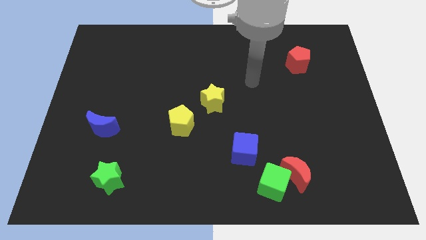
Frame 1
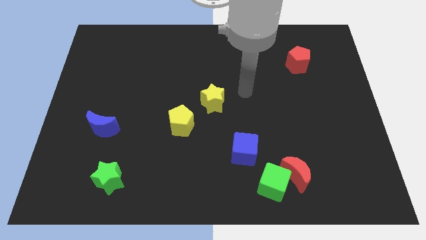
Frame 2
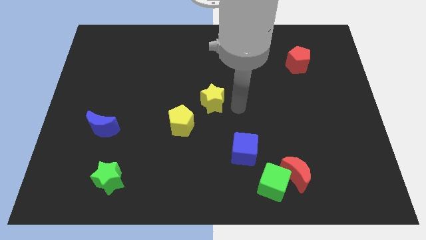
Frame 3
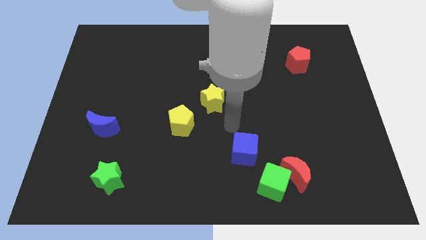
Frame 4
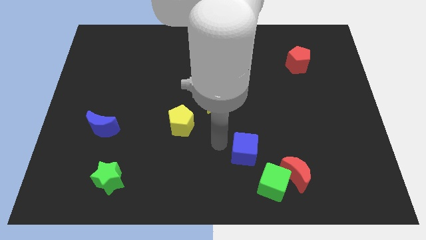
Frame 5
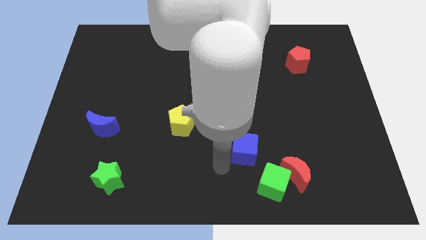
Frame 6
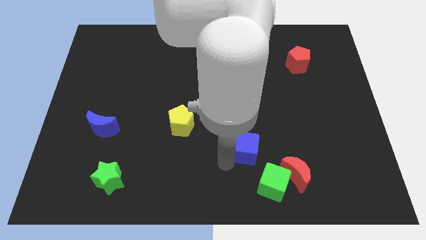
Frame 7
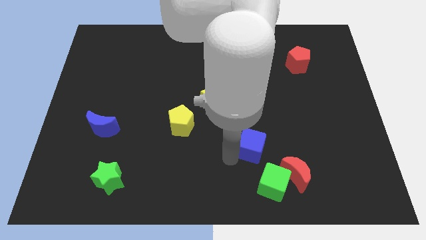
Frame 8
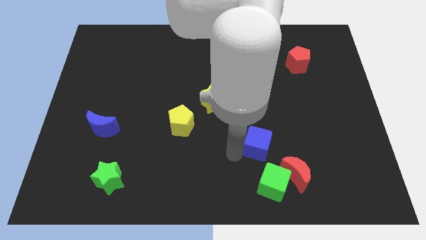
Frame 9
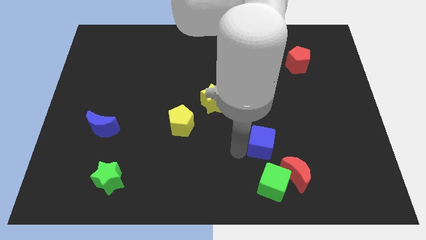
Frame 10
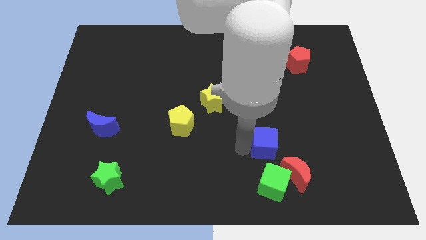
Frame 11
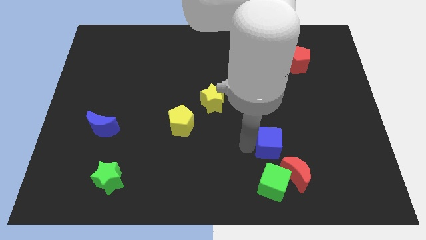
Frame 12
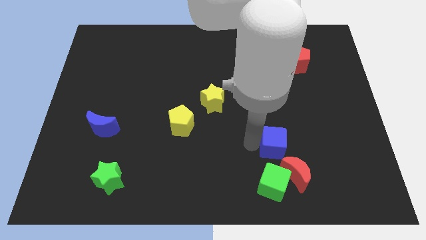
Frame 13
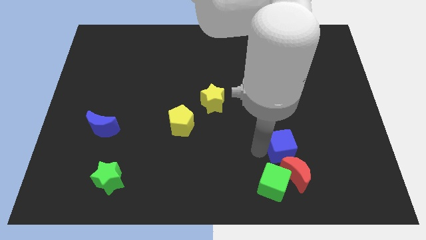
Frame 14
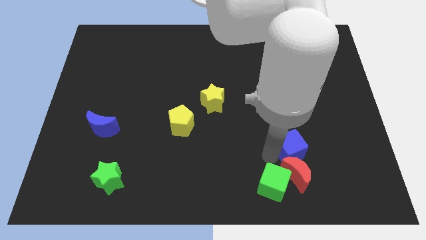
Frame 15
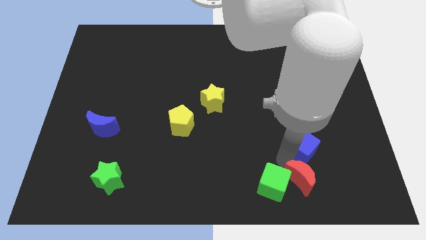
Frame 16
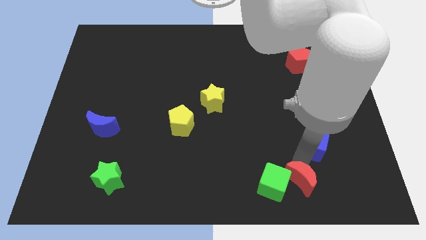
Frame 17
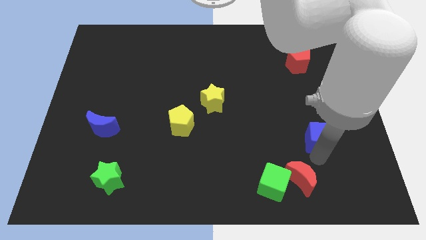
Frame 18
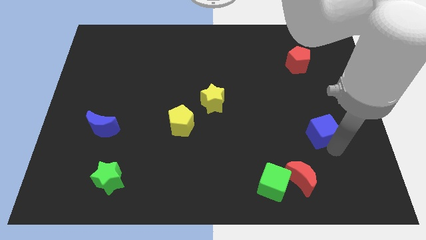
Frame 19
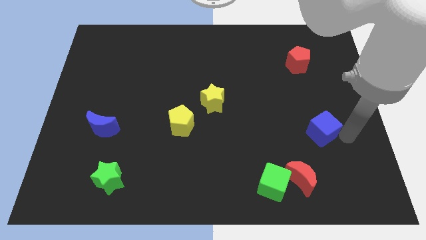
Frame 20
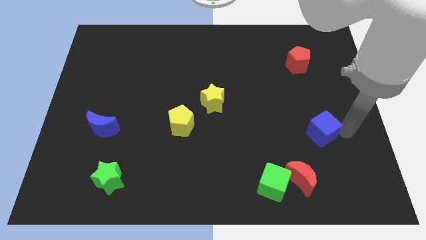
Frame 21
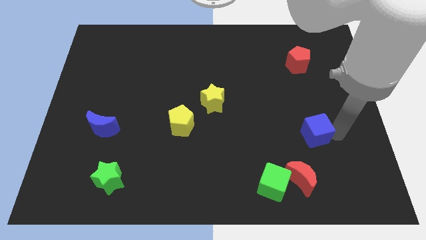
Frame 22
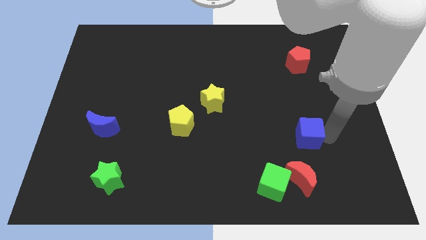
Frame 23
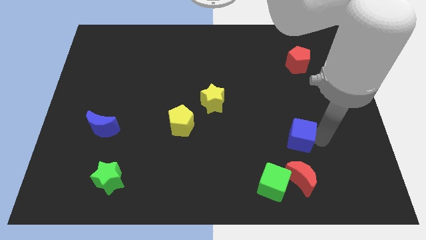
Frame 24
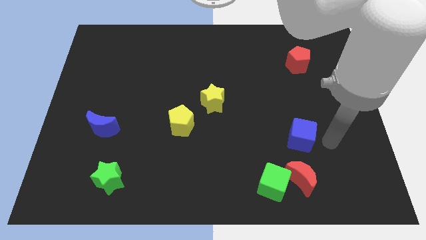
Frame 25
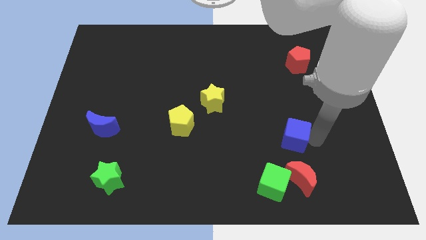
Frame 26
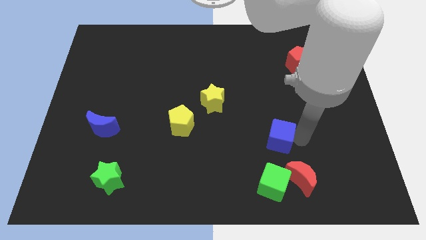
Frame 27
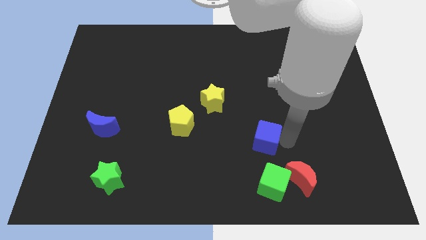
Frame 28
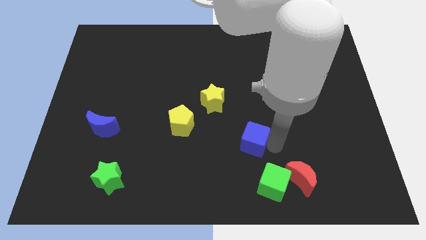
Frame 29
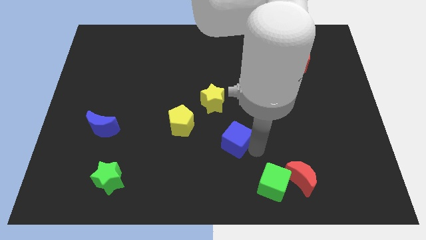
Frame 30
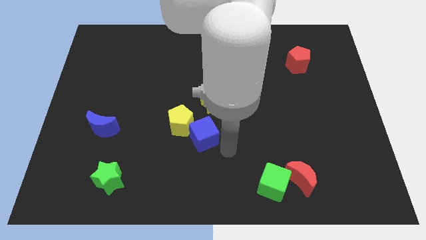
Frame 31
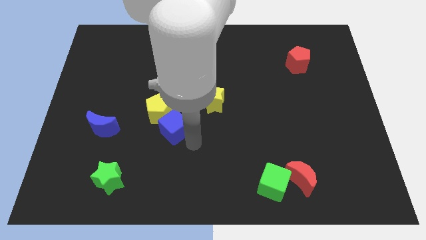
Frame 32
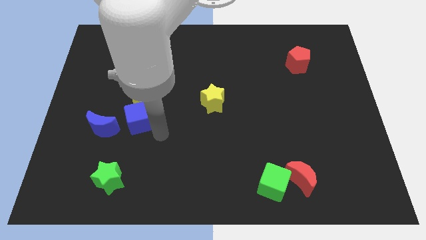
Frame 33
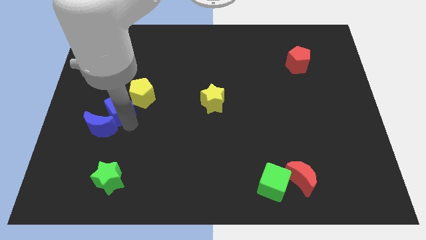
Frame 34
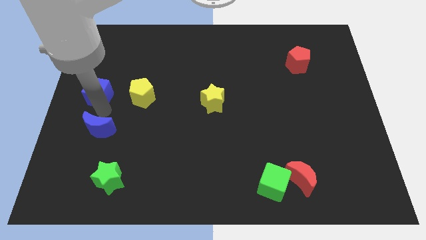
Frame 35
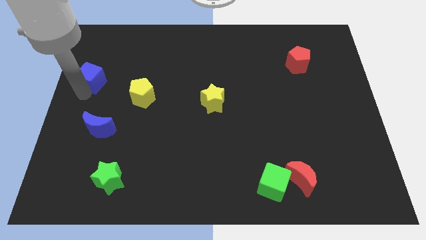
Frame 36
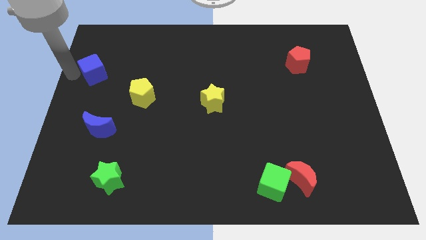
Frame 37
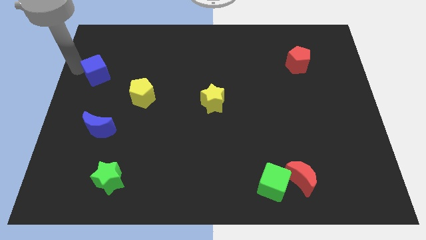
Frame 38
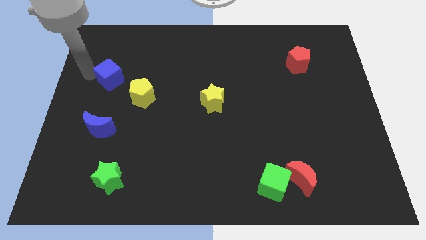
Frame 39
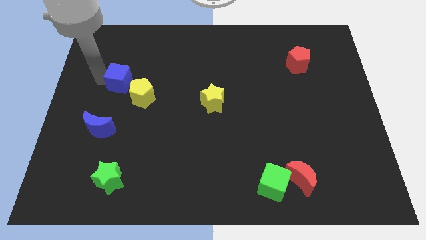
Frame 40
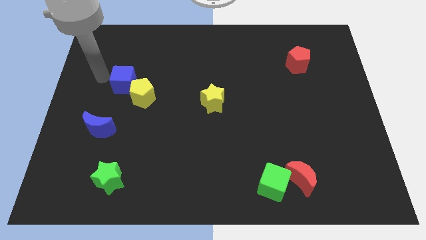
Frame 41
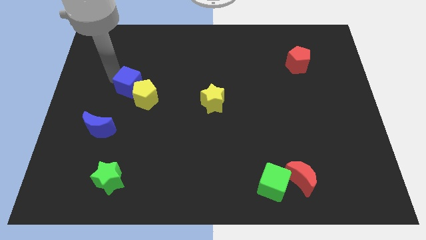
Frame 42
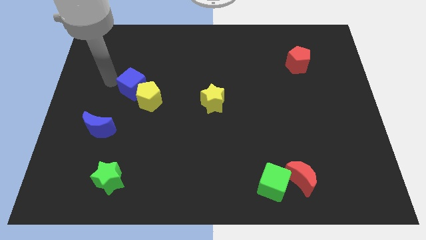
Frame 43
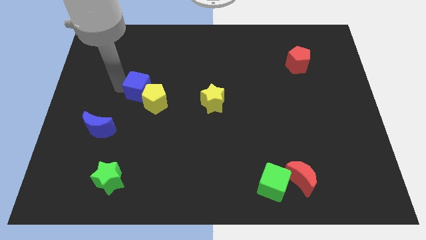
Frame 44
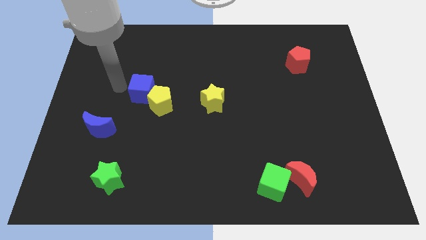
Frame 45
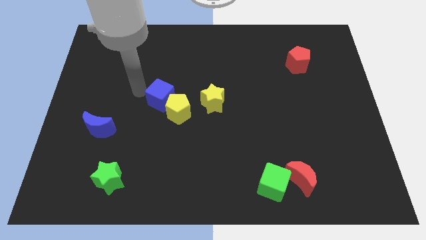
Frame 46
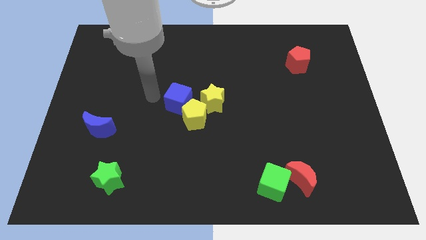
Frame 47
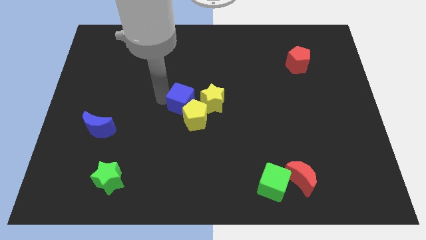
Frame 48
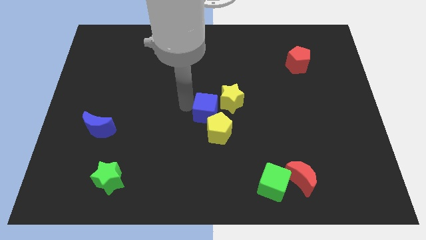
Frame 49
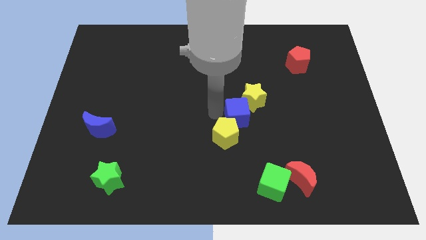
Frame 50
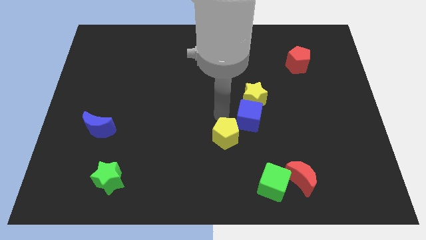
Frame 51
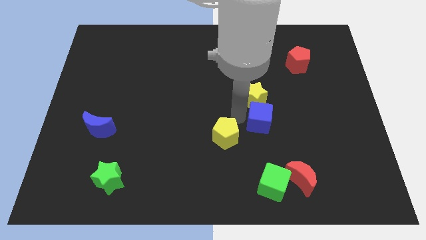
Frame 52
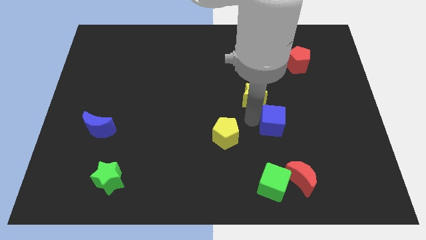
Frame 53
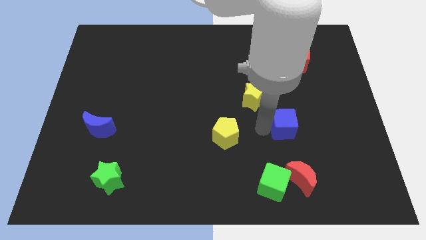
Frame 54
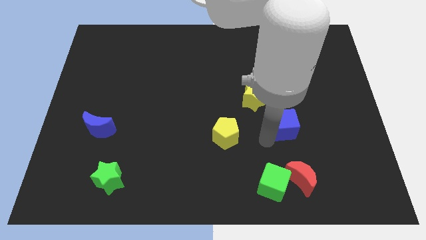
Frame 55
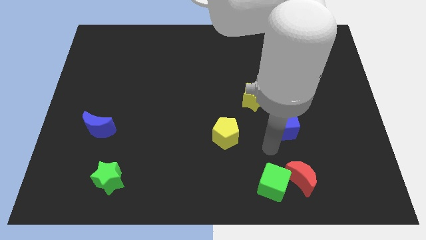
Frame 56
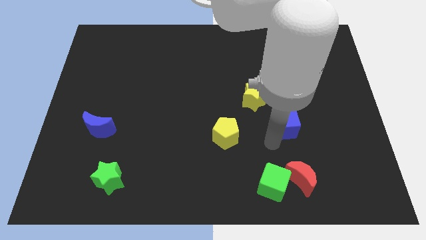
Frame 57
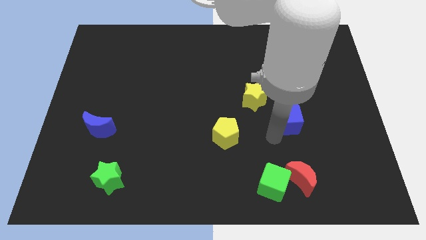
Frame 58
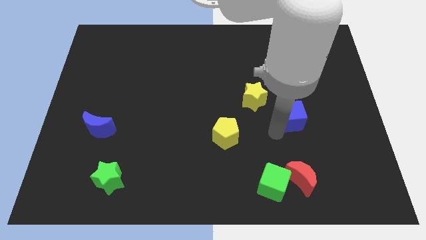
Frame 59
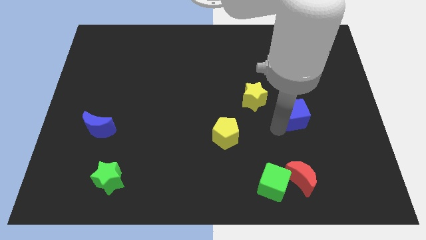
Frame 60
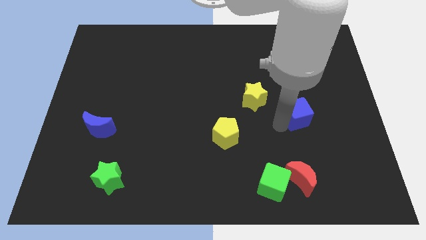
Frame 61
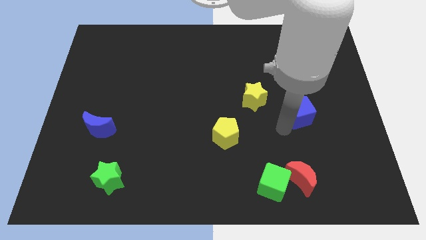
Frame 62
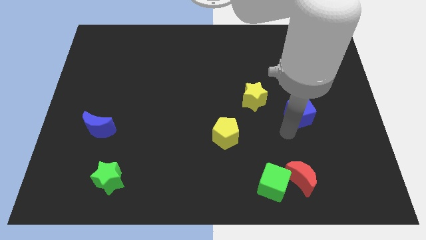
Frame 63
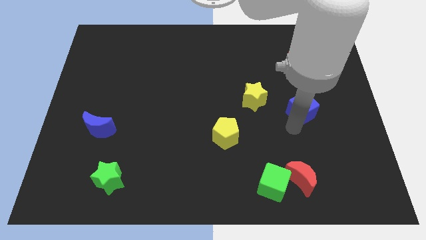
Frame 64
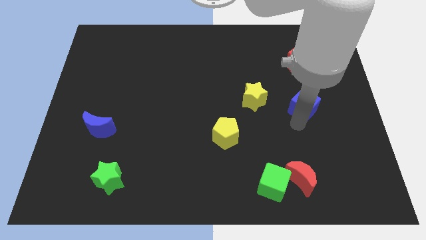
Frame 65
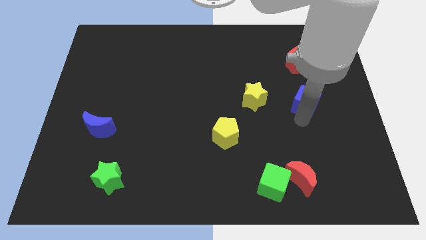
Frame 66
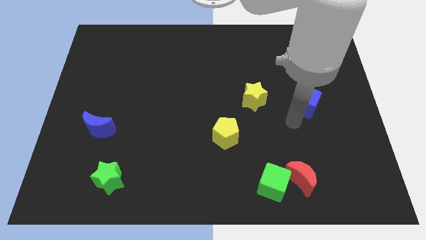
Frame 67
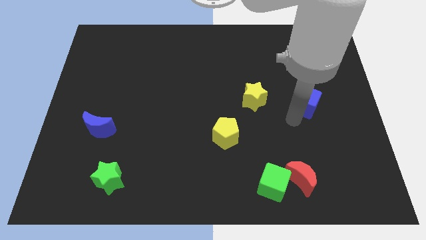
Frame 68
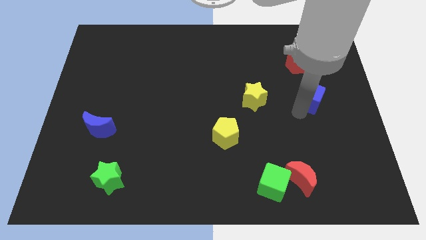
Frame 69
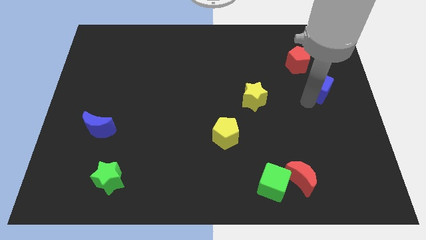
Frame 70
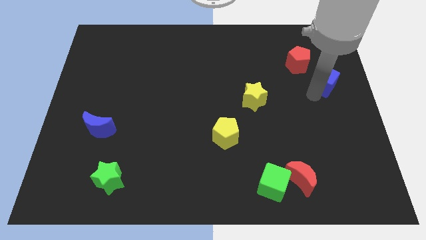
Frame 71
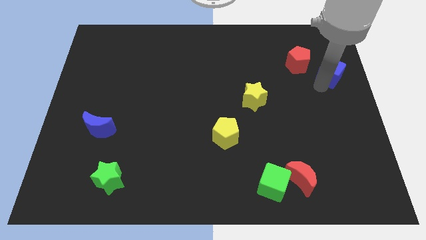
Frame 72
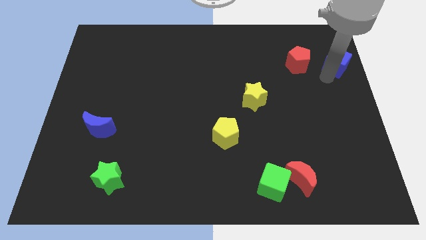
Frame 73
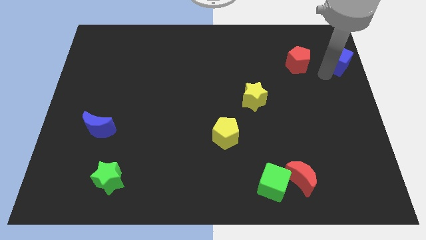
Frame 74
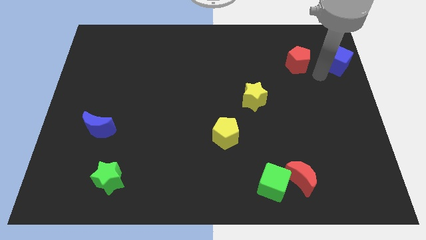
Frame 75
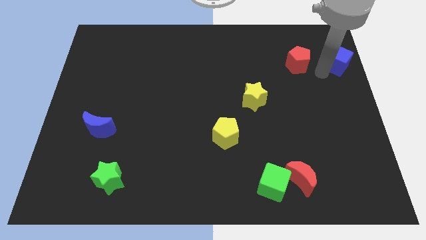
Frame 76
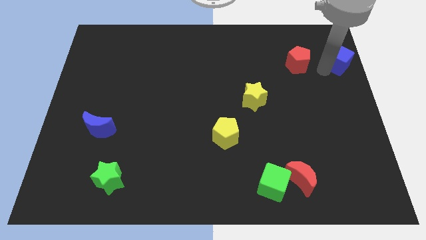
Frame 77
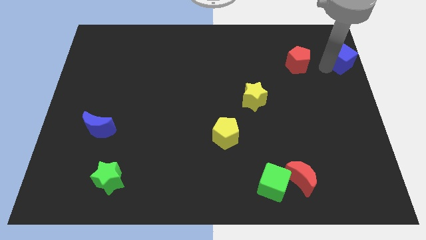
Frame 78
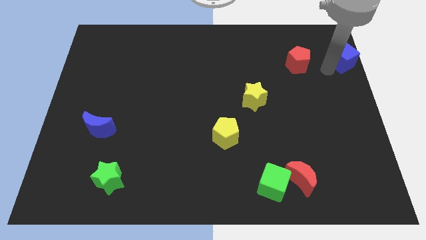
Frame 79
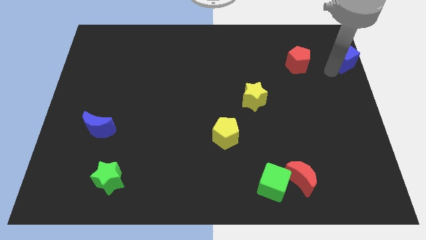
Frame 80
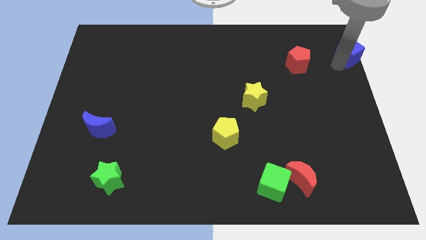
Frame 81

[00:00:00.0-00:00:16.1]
move the blue cube to the top right of the board
